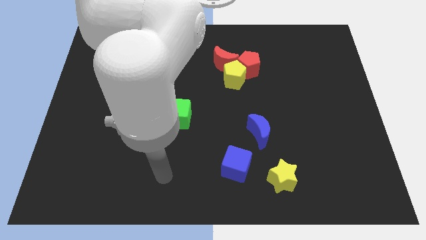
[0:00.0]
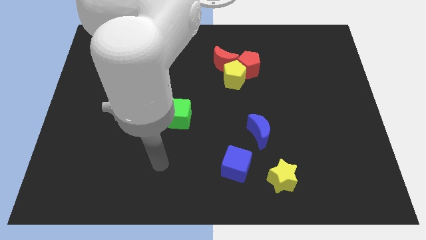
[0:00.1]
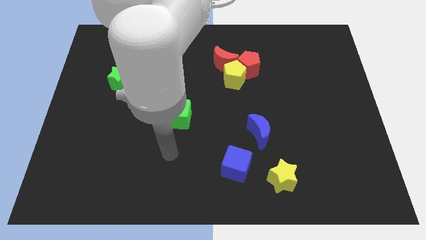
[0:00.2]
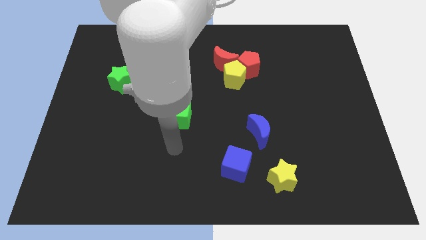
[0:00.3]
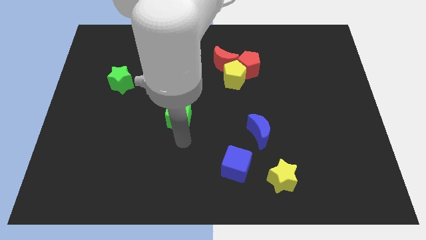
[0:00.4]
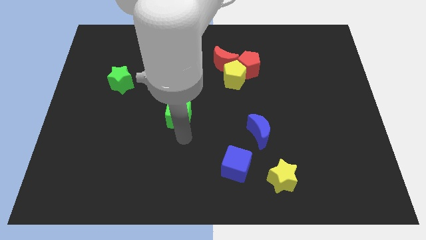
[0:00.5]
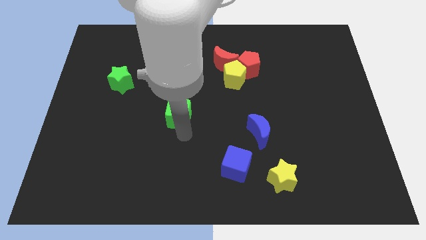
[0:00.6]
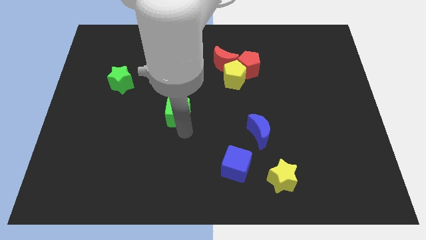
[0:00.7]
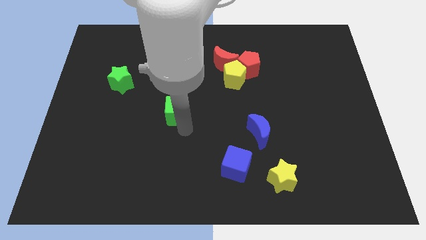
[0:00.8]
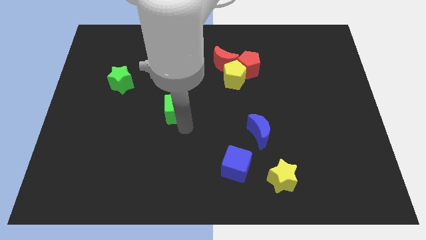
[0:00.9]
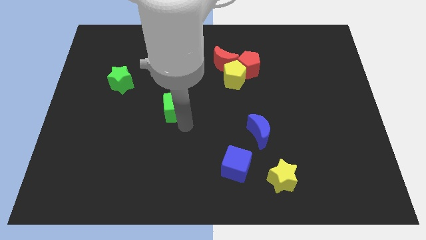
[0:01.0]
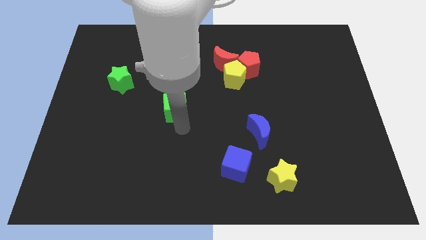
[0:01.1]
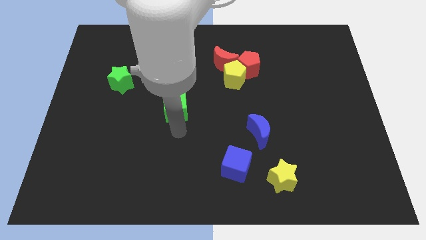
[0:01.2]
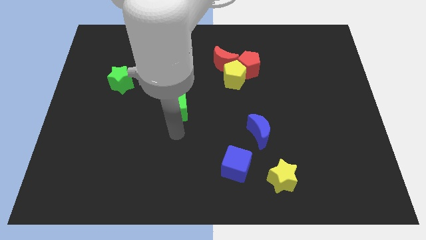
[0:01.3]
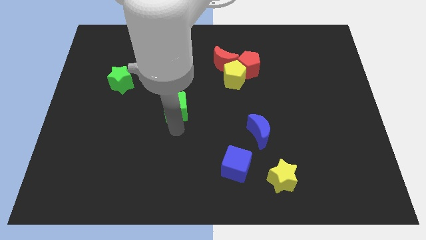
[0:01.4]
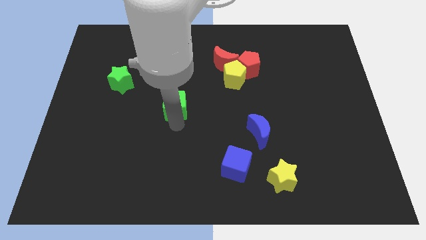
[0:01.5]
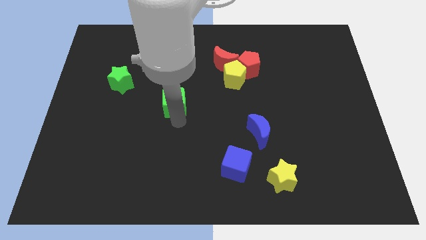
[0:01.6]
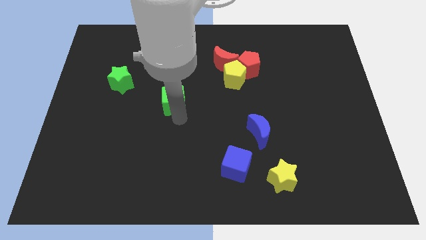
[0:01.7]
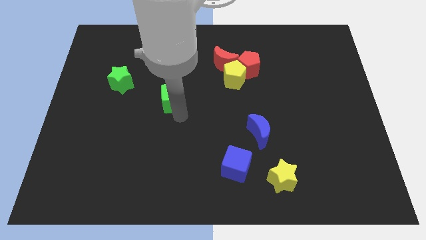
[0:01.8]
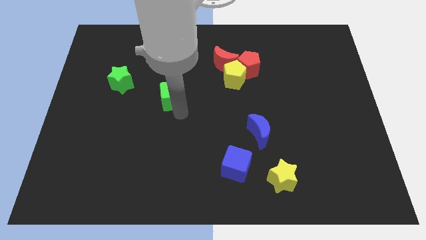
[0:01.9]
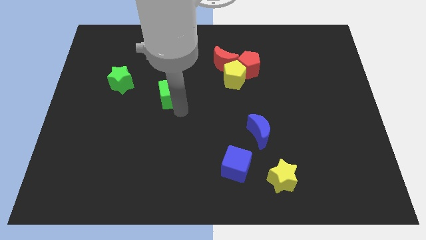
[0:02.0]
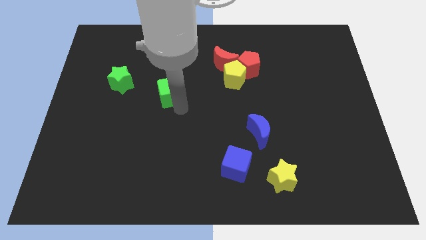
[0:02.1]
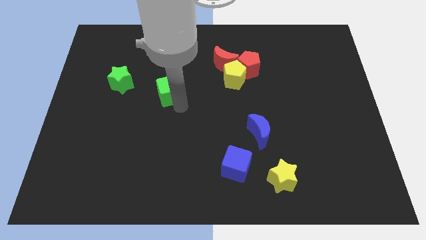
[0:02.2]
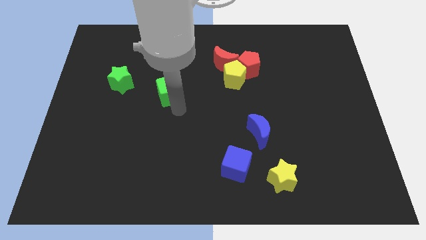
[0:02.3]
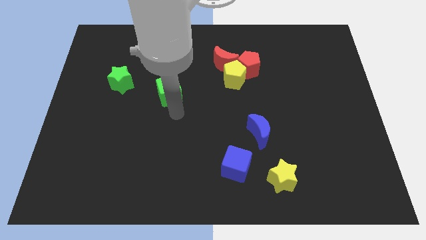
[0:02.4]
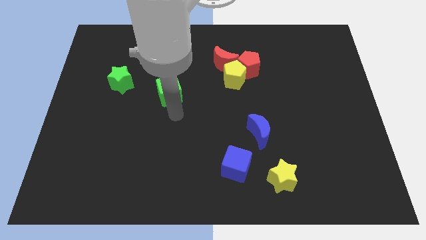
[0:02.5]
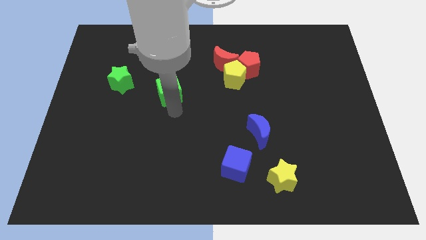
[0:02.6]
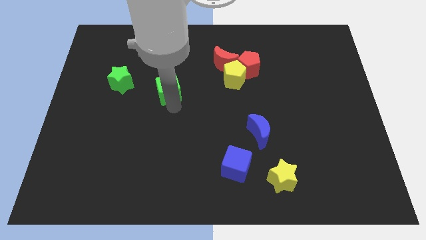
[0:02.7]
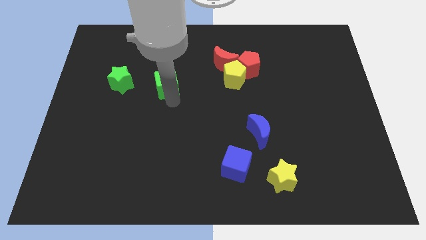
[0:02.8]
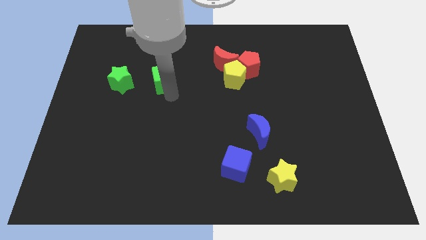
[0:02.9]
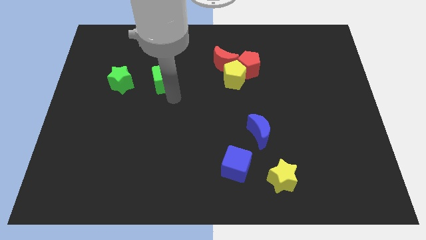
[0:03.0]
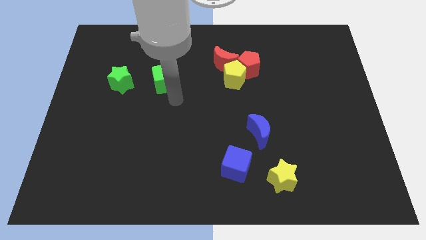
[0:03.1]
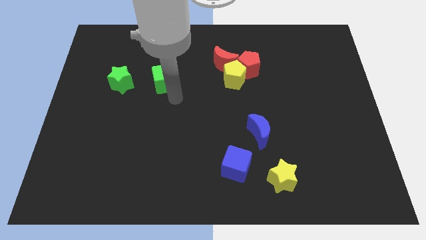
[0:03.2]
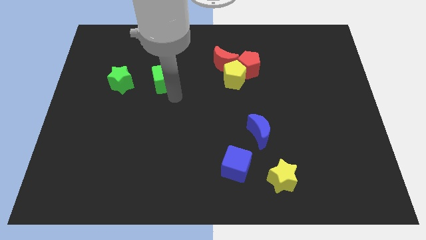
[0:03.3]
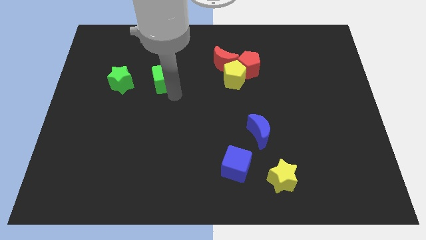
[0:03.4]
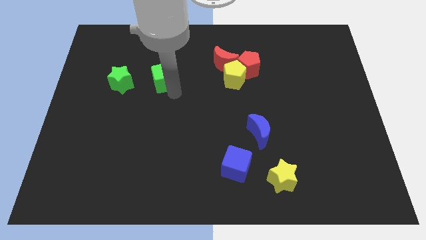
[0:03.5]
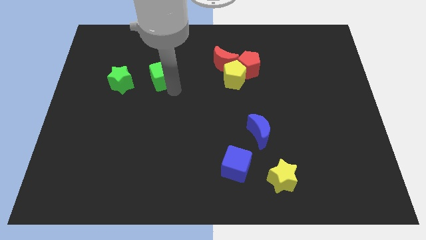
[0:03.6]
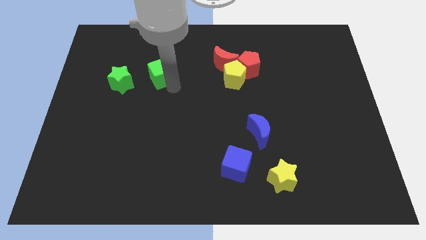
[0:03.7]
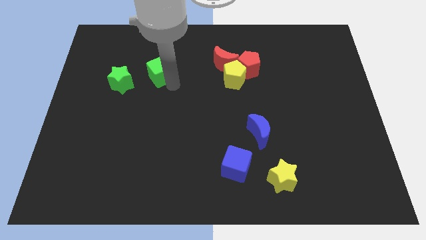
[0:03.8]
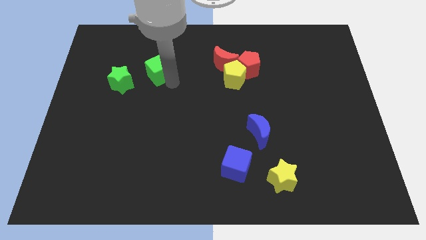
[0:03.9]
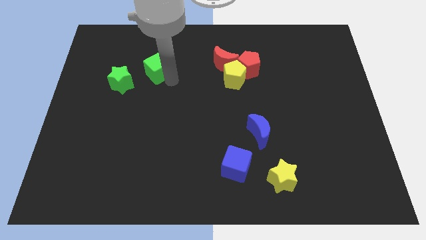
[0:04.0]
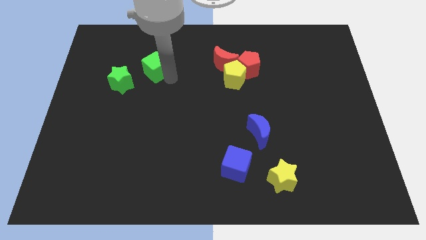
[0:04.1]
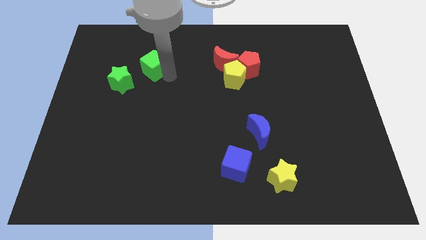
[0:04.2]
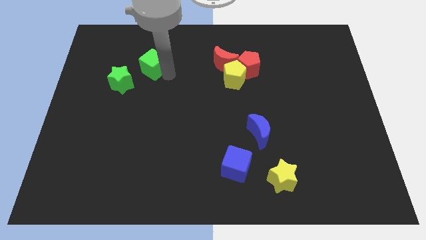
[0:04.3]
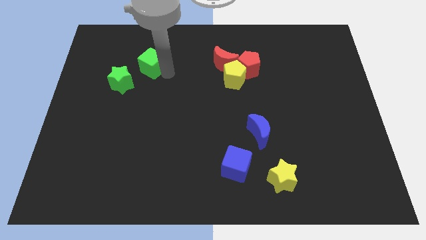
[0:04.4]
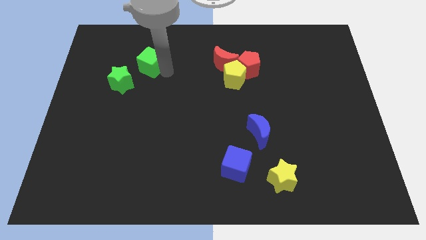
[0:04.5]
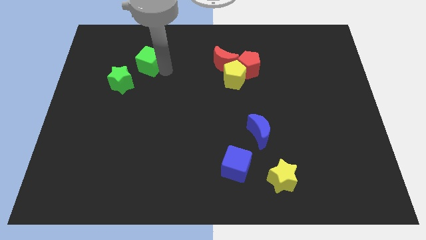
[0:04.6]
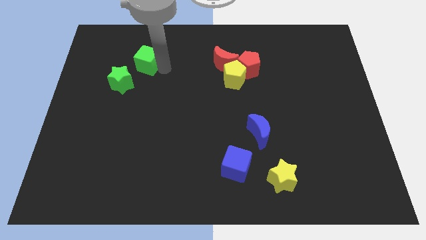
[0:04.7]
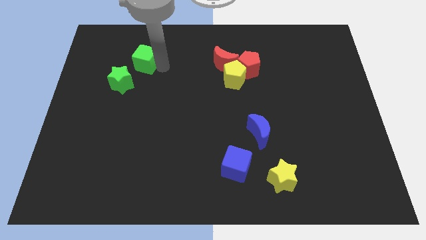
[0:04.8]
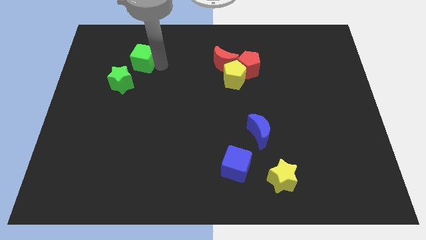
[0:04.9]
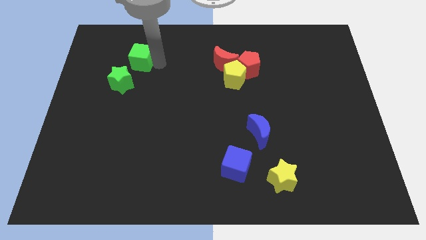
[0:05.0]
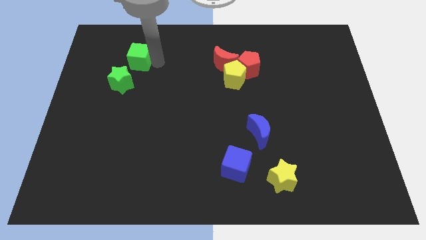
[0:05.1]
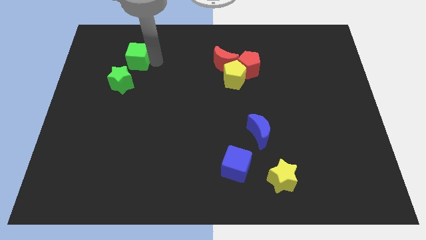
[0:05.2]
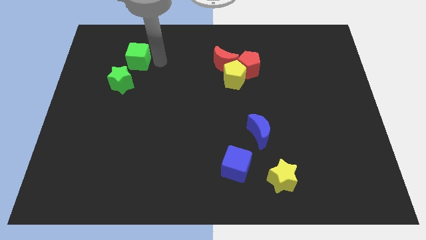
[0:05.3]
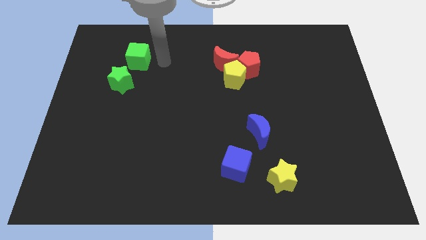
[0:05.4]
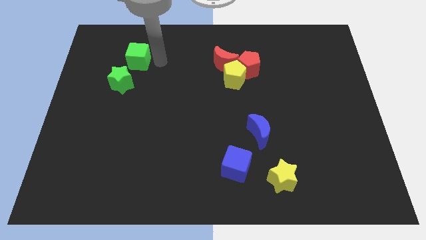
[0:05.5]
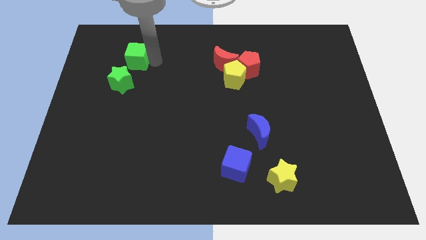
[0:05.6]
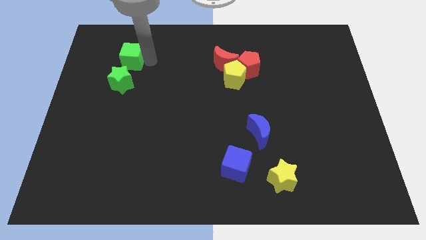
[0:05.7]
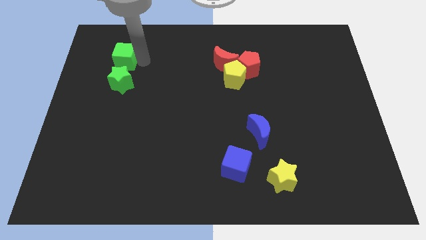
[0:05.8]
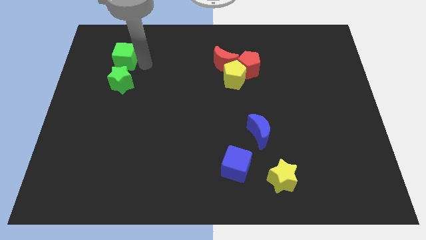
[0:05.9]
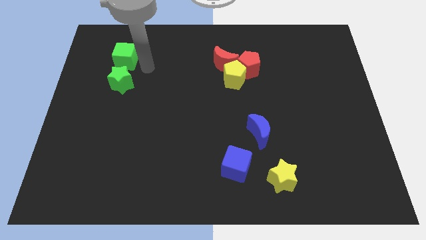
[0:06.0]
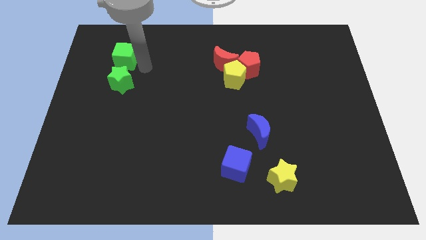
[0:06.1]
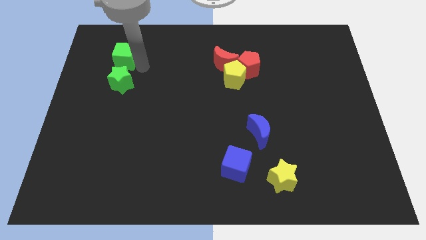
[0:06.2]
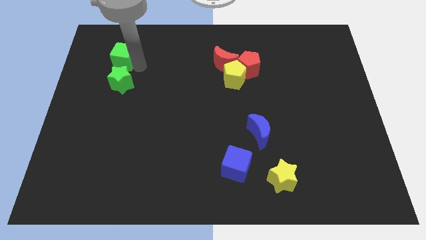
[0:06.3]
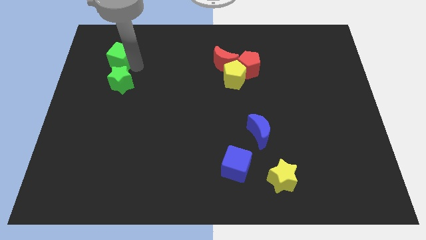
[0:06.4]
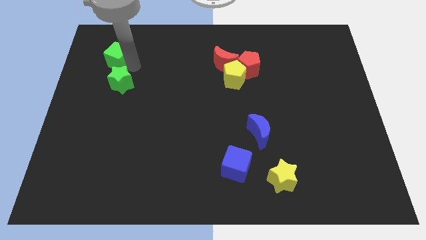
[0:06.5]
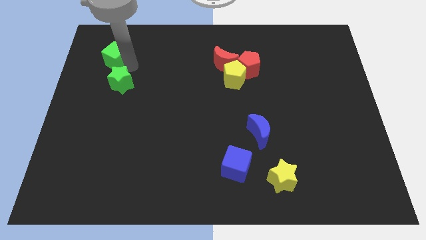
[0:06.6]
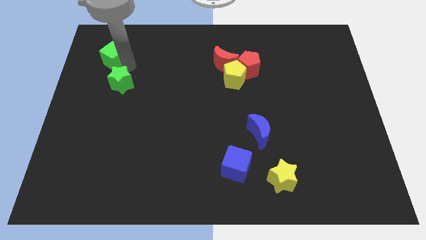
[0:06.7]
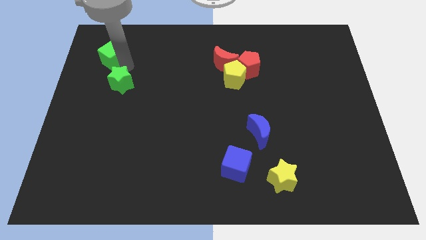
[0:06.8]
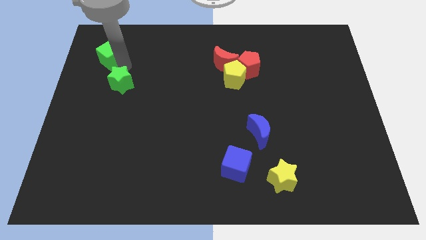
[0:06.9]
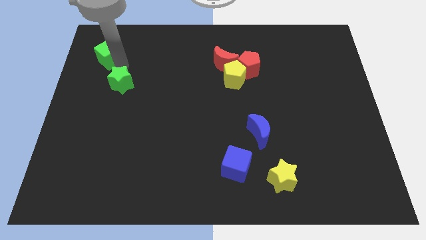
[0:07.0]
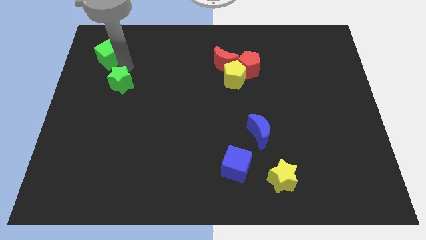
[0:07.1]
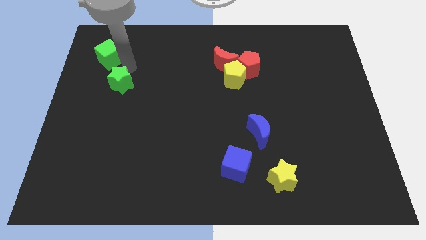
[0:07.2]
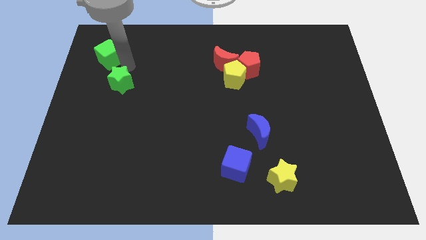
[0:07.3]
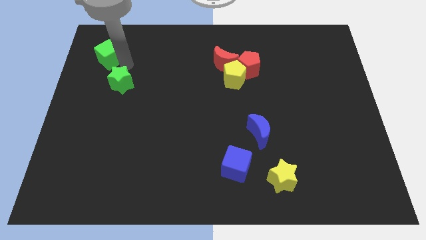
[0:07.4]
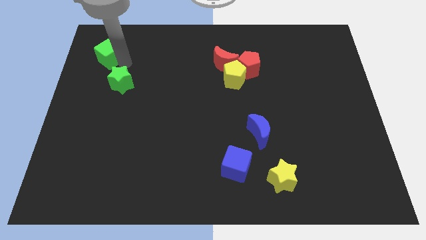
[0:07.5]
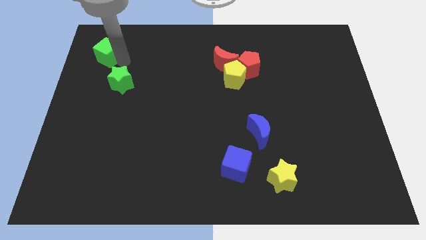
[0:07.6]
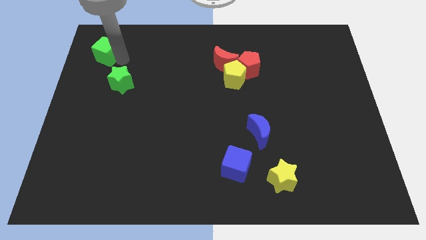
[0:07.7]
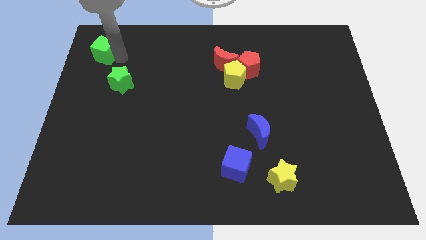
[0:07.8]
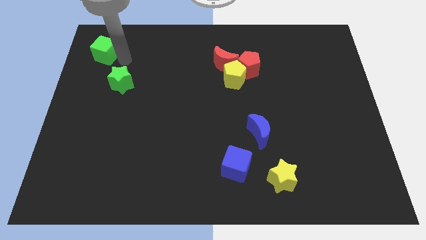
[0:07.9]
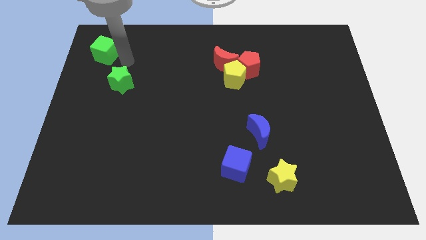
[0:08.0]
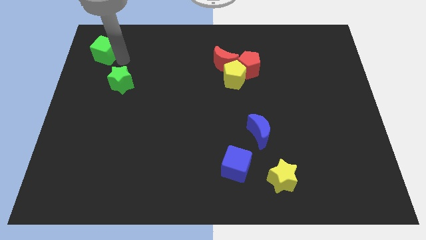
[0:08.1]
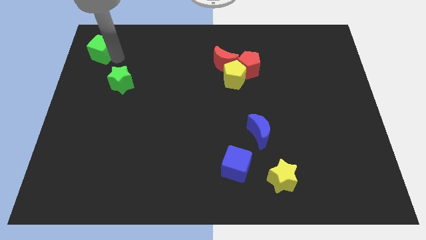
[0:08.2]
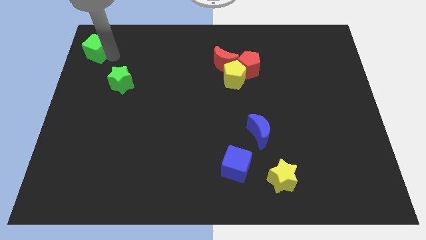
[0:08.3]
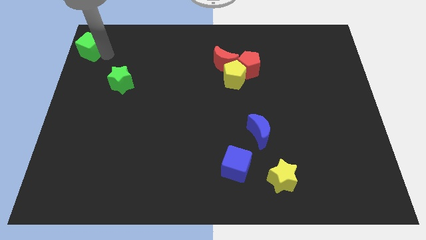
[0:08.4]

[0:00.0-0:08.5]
put the green cube to the top left of the board
